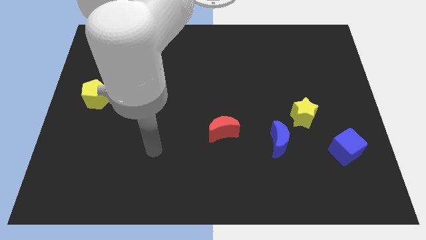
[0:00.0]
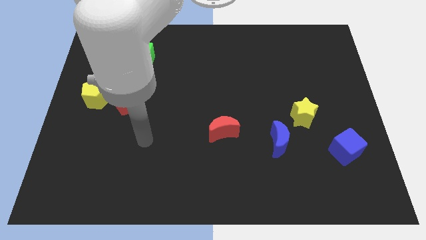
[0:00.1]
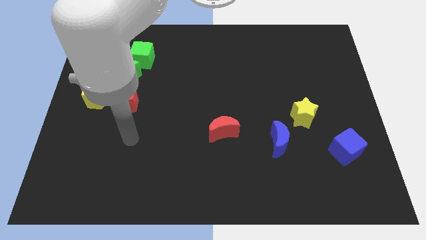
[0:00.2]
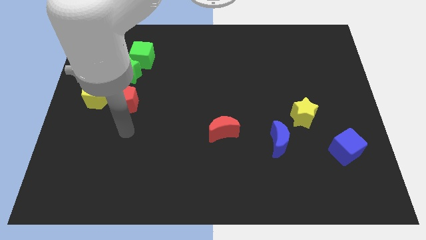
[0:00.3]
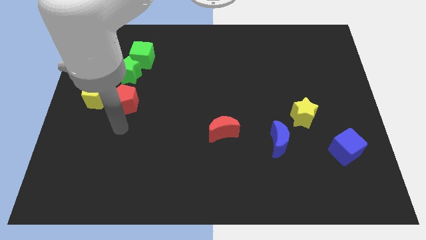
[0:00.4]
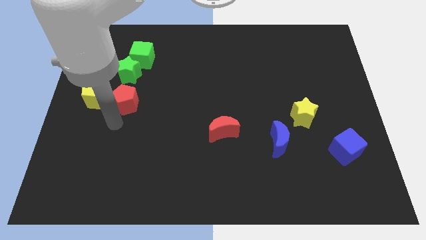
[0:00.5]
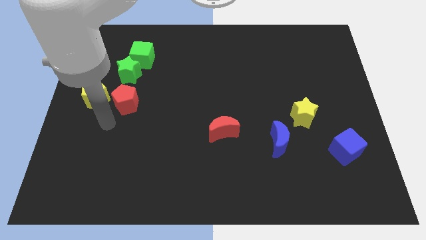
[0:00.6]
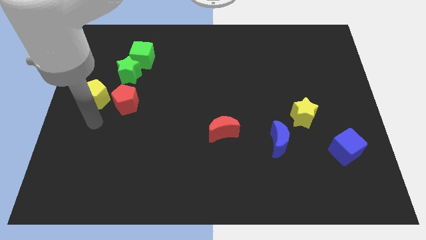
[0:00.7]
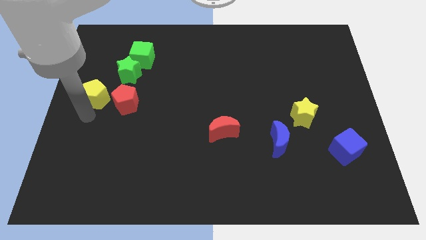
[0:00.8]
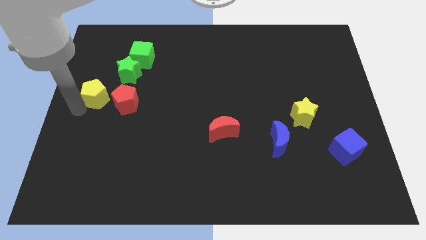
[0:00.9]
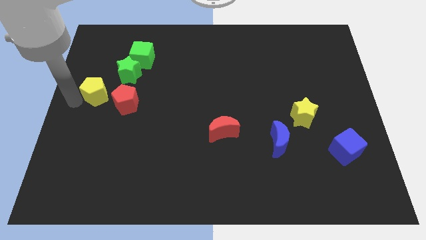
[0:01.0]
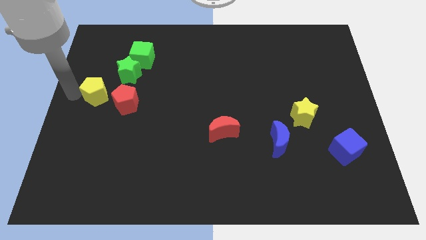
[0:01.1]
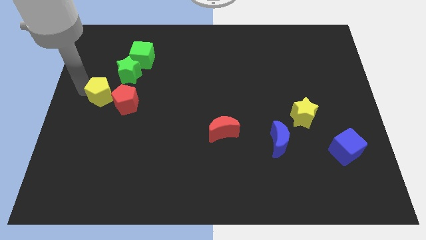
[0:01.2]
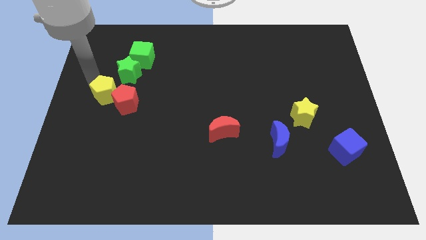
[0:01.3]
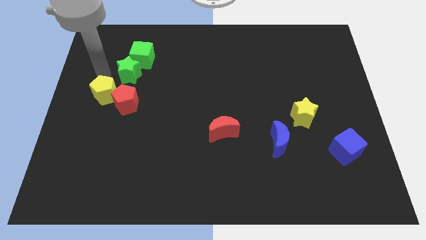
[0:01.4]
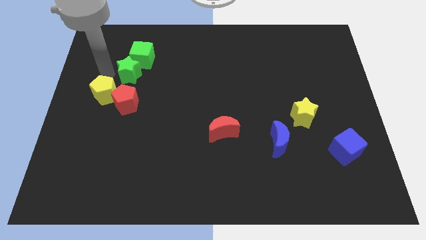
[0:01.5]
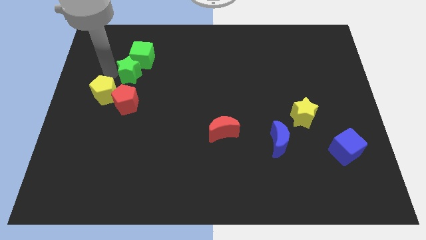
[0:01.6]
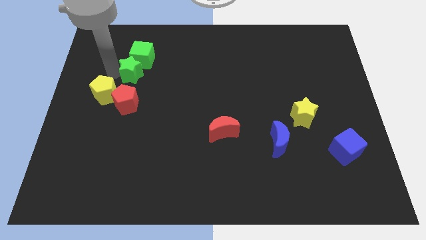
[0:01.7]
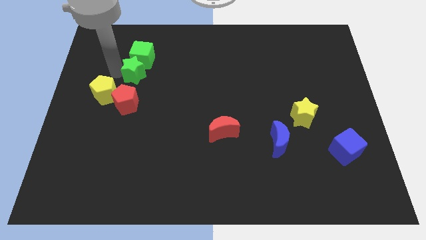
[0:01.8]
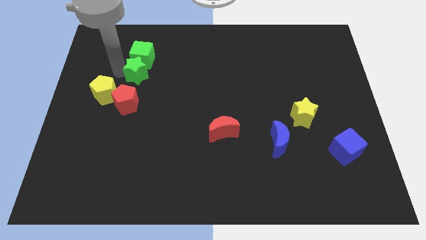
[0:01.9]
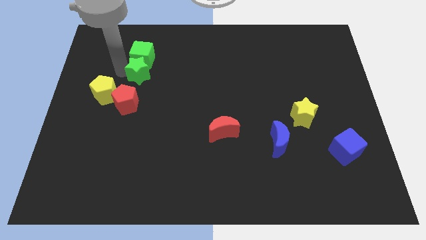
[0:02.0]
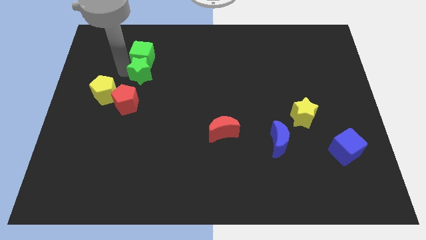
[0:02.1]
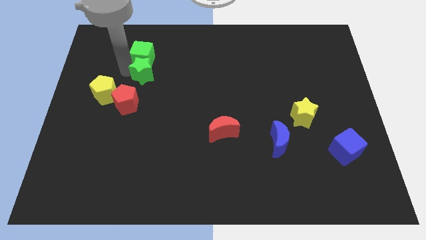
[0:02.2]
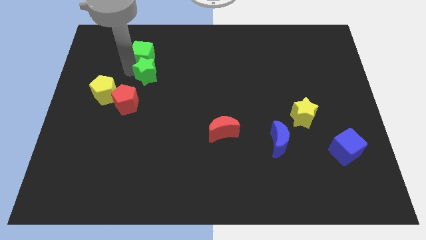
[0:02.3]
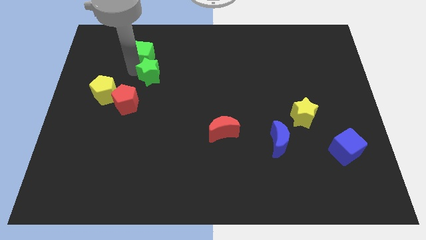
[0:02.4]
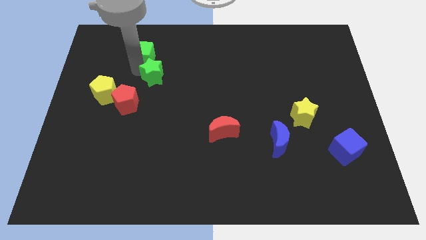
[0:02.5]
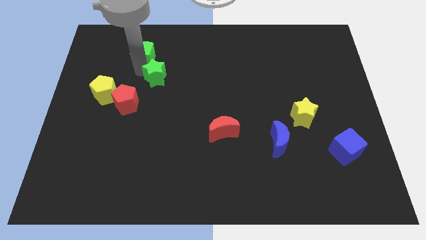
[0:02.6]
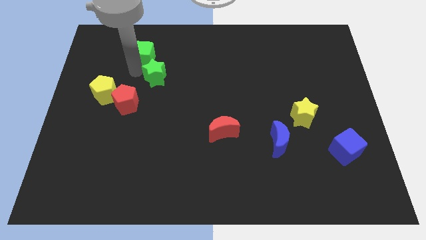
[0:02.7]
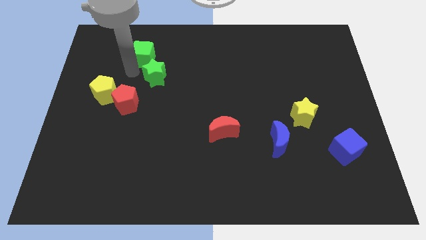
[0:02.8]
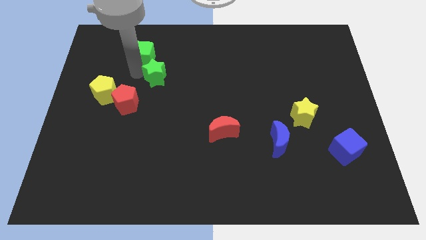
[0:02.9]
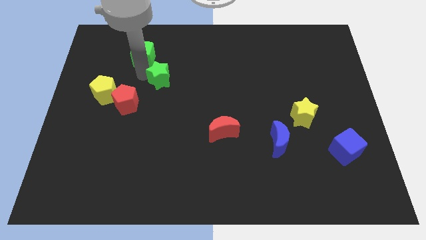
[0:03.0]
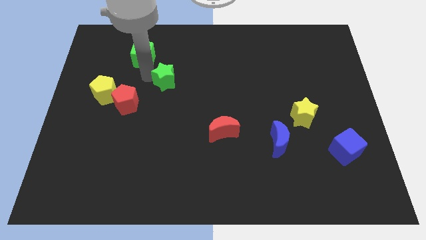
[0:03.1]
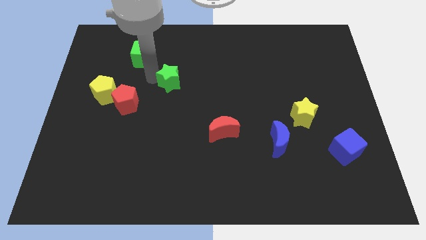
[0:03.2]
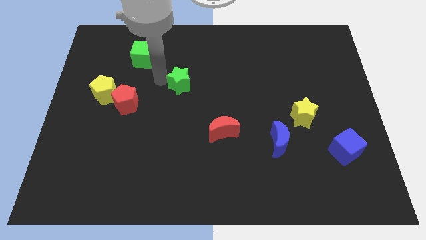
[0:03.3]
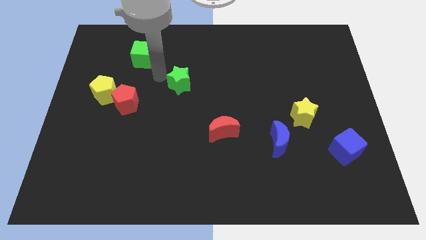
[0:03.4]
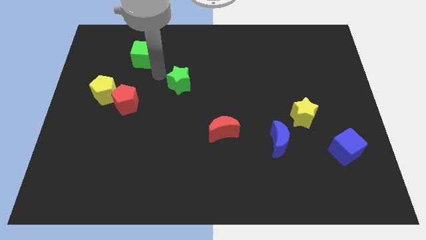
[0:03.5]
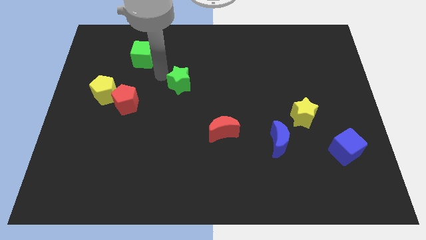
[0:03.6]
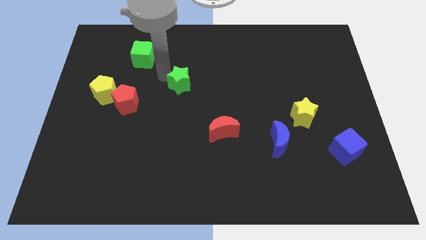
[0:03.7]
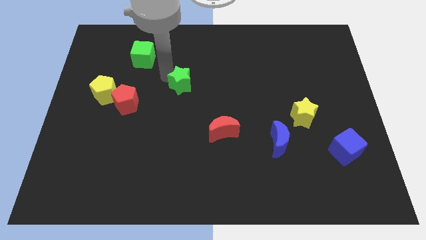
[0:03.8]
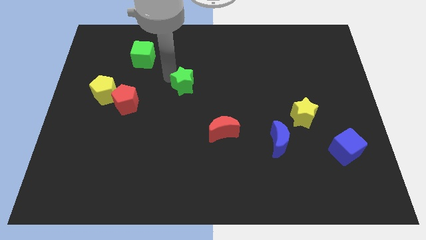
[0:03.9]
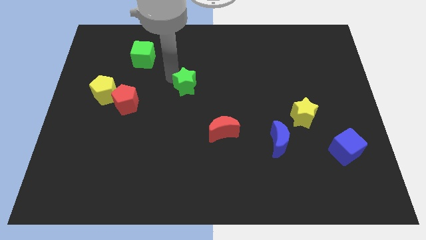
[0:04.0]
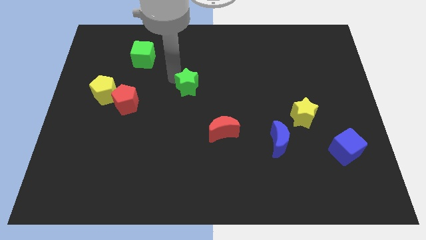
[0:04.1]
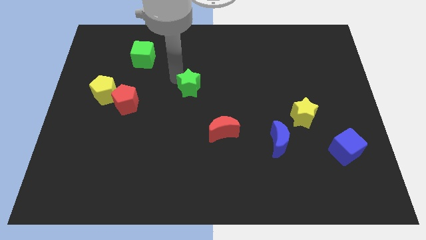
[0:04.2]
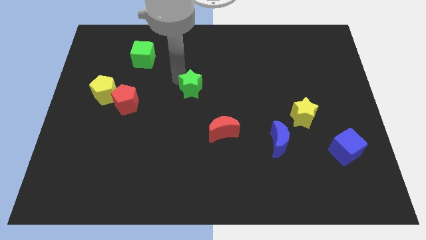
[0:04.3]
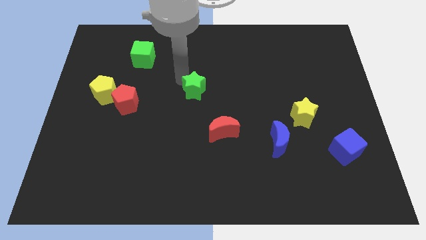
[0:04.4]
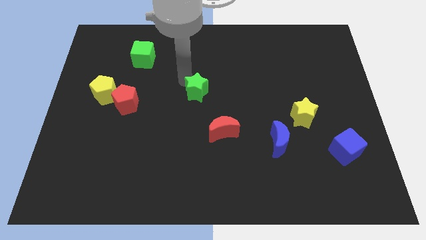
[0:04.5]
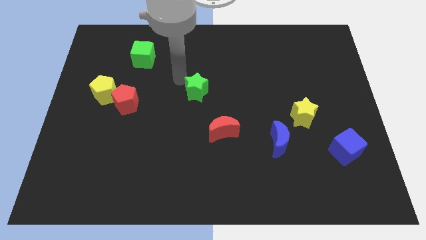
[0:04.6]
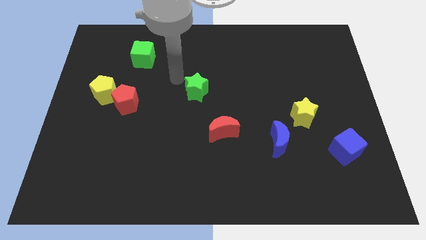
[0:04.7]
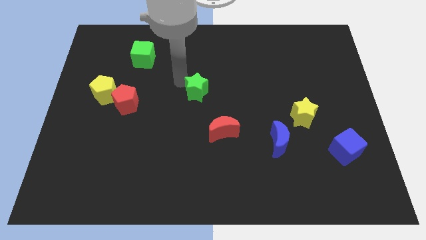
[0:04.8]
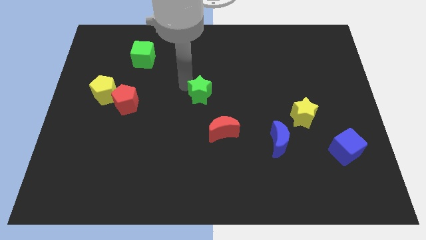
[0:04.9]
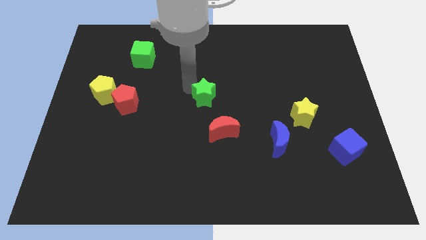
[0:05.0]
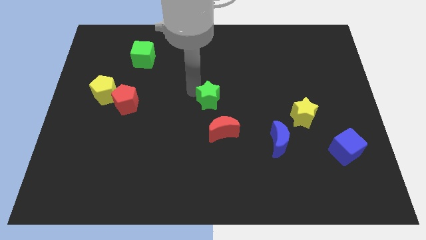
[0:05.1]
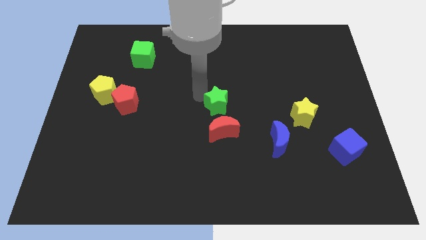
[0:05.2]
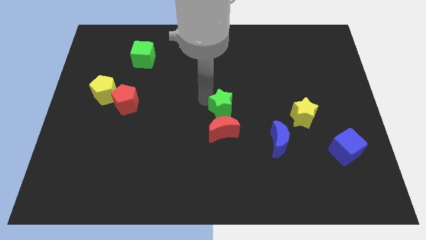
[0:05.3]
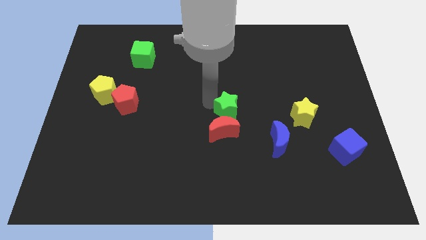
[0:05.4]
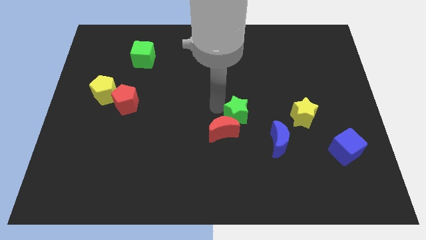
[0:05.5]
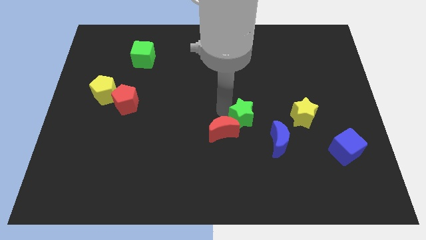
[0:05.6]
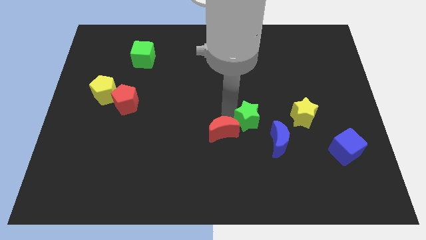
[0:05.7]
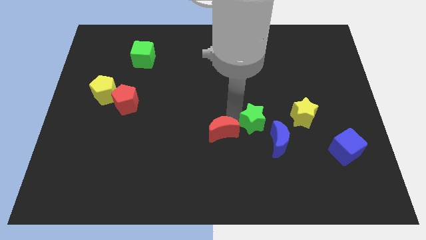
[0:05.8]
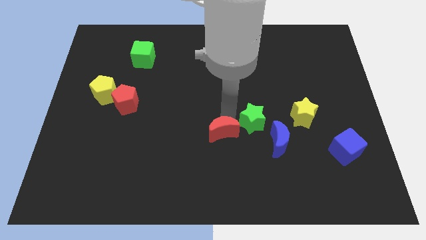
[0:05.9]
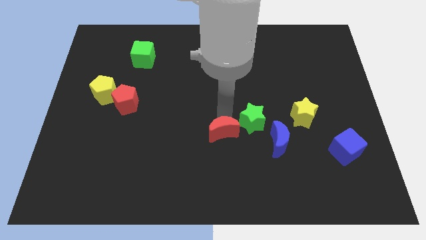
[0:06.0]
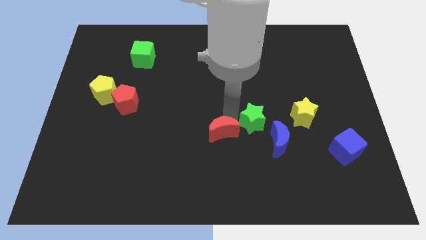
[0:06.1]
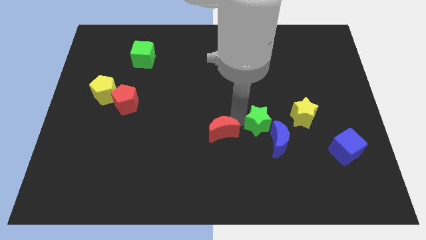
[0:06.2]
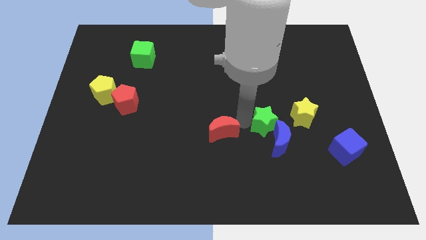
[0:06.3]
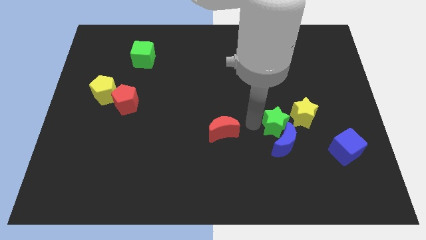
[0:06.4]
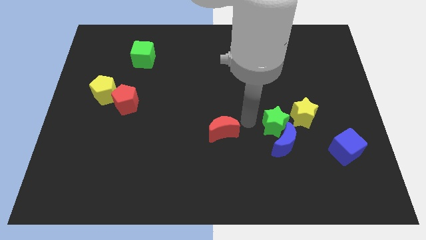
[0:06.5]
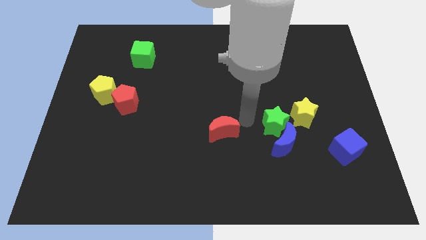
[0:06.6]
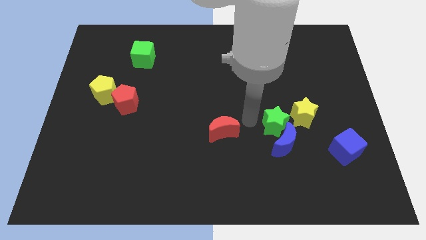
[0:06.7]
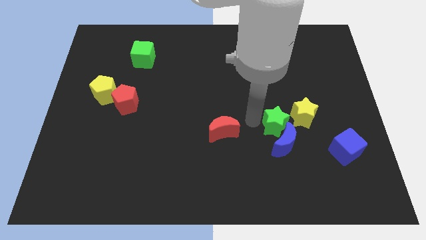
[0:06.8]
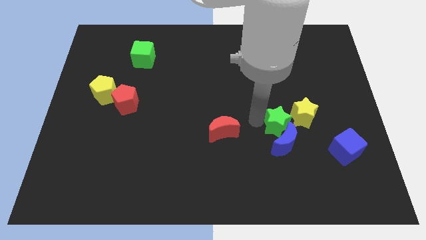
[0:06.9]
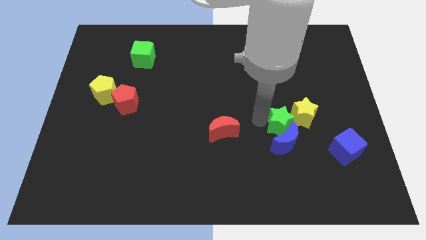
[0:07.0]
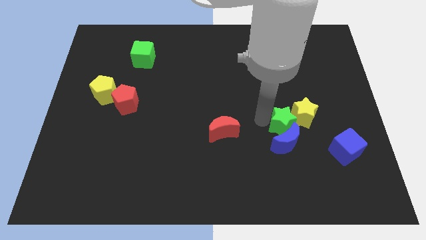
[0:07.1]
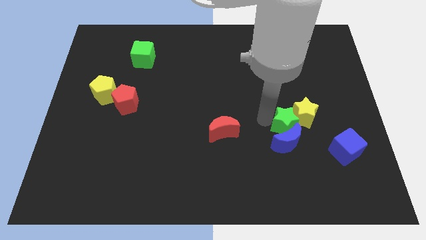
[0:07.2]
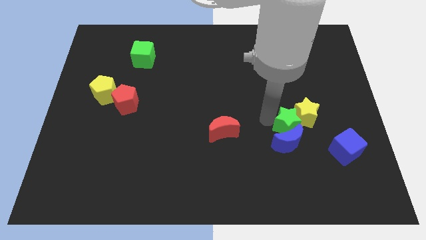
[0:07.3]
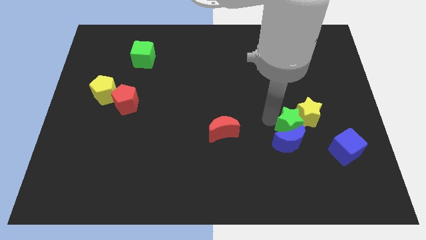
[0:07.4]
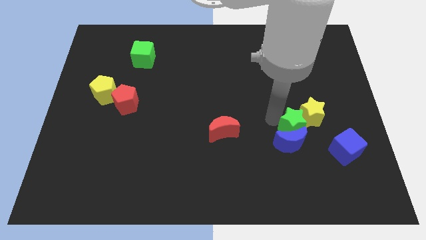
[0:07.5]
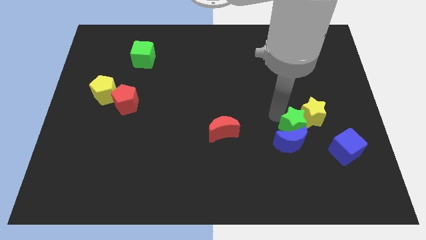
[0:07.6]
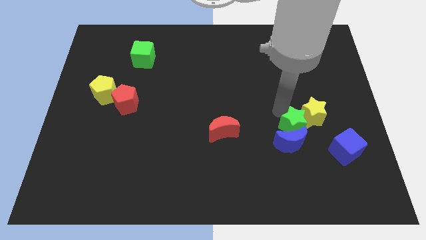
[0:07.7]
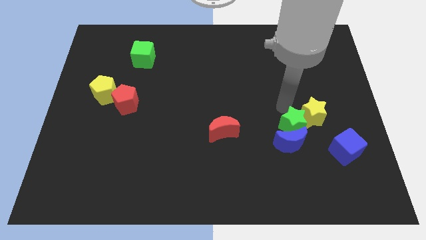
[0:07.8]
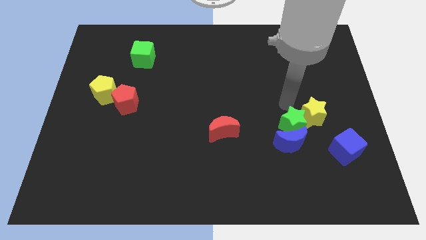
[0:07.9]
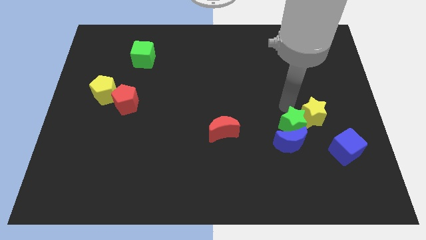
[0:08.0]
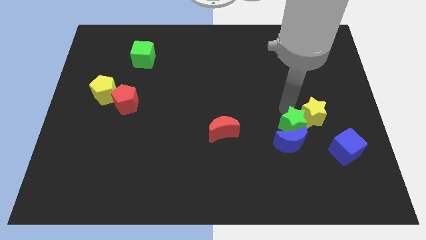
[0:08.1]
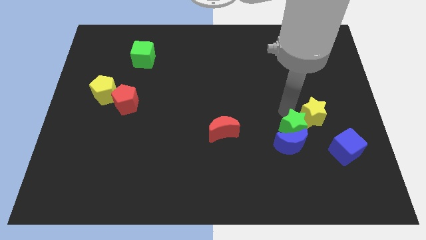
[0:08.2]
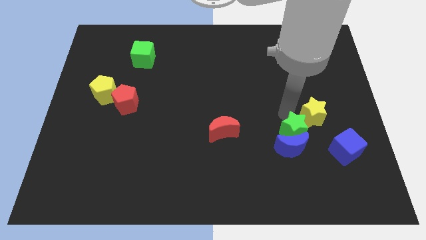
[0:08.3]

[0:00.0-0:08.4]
move the green star just left of the blue cube
